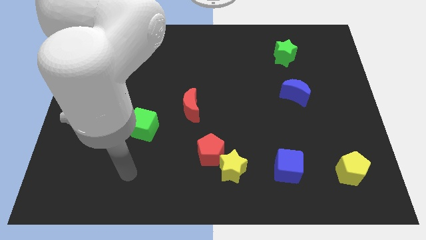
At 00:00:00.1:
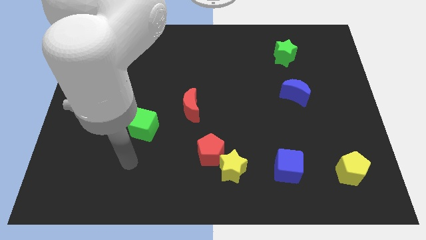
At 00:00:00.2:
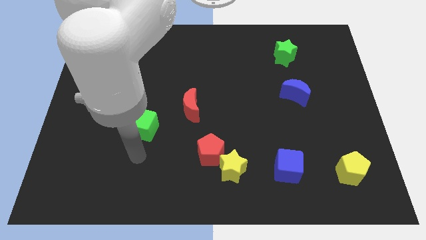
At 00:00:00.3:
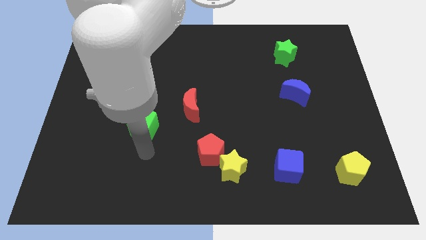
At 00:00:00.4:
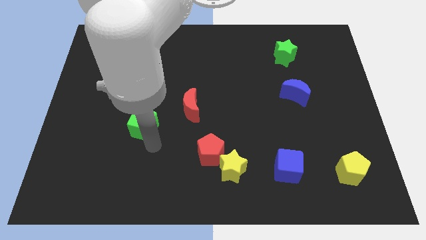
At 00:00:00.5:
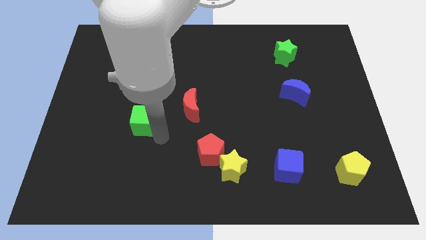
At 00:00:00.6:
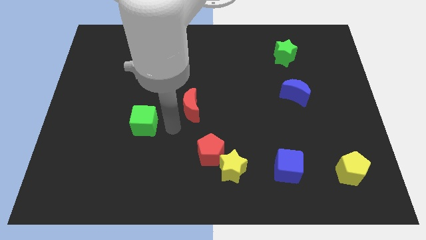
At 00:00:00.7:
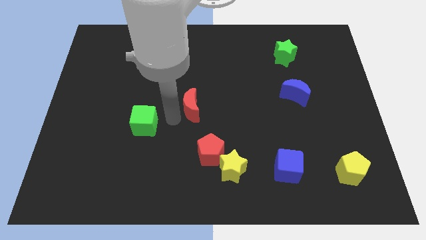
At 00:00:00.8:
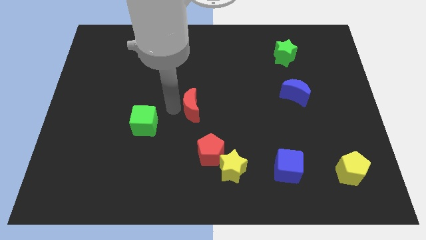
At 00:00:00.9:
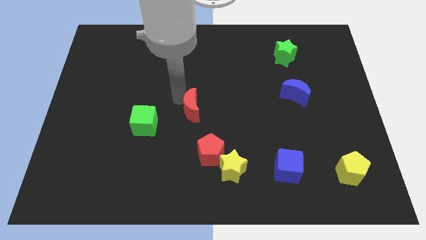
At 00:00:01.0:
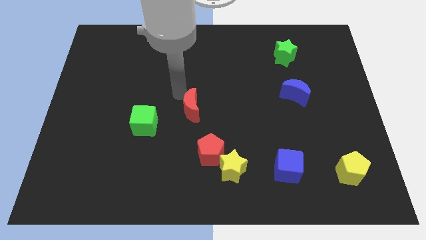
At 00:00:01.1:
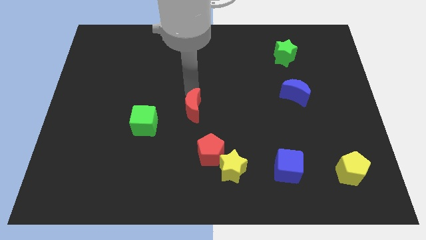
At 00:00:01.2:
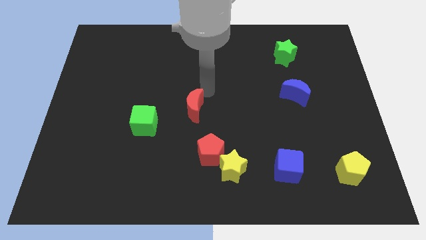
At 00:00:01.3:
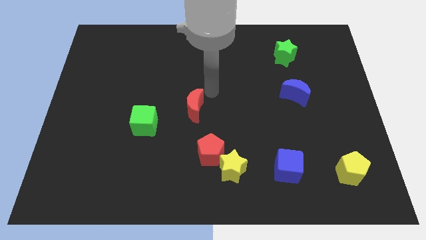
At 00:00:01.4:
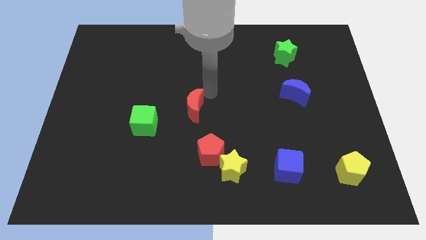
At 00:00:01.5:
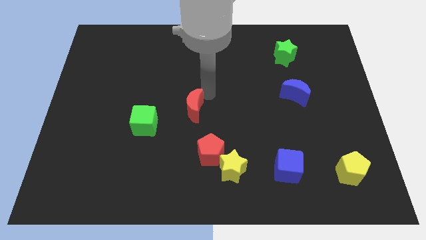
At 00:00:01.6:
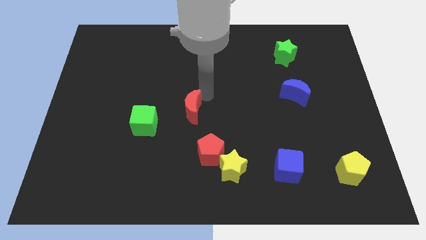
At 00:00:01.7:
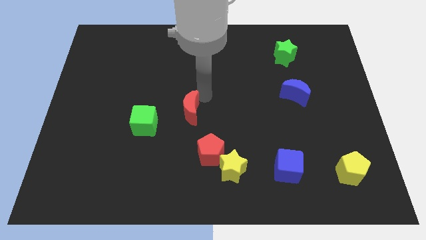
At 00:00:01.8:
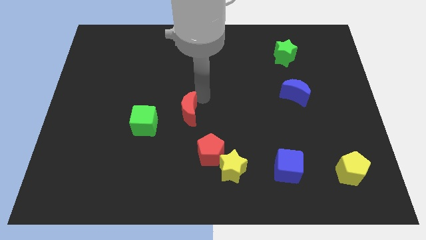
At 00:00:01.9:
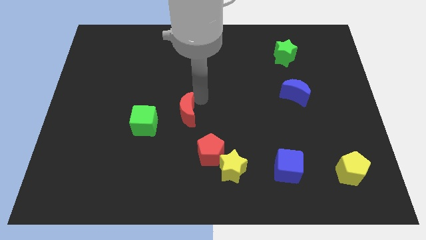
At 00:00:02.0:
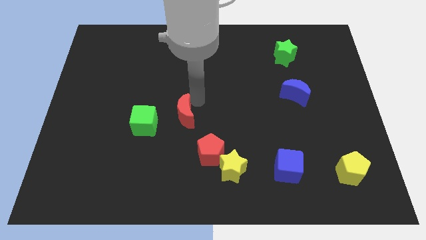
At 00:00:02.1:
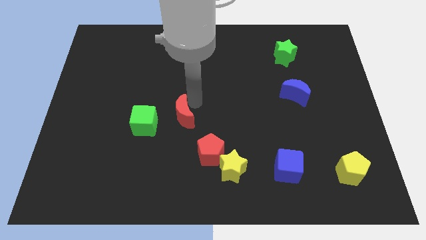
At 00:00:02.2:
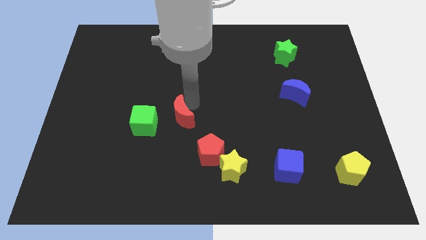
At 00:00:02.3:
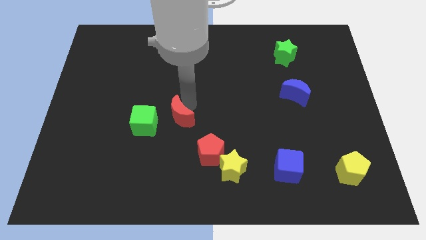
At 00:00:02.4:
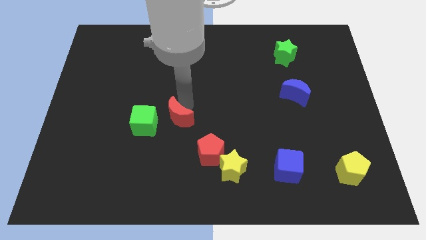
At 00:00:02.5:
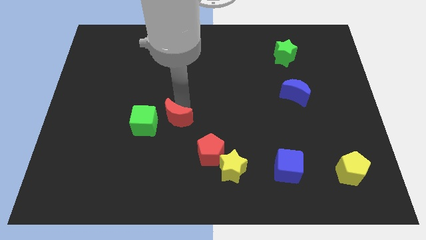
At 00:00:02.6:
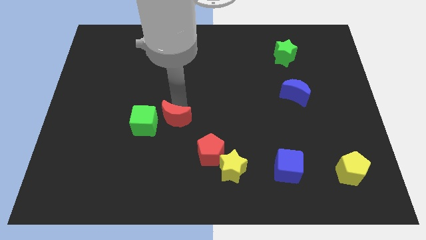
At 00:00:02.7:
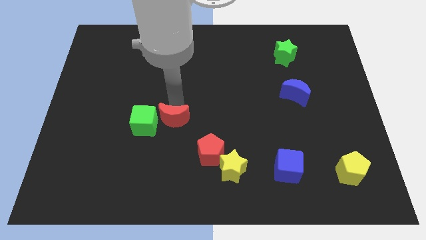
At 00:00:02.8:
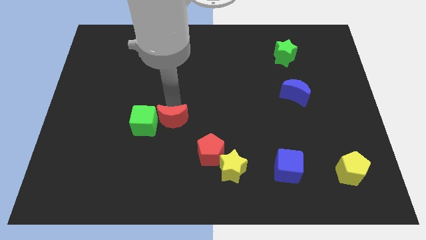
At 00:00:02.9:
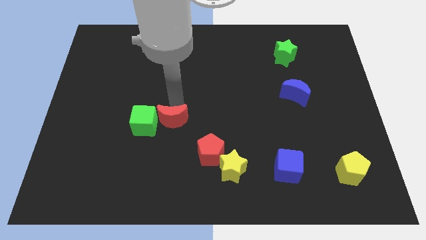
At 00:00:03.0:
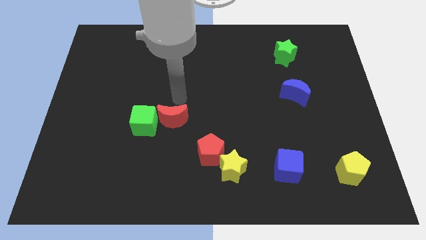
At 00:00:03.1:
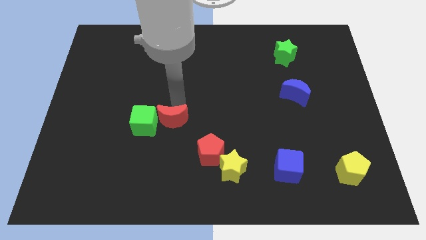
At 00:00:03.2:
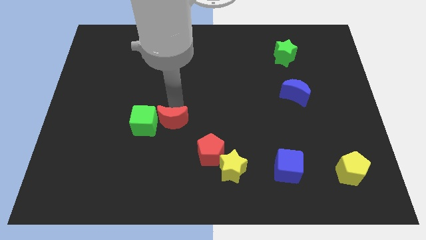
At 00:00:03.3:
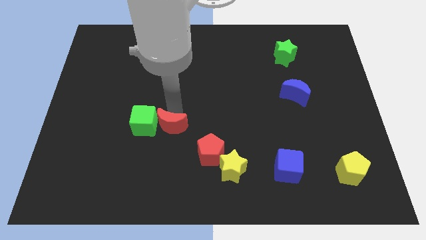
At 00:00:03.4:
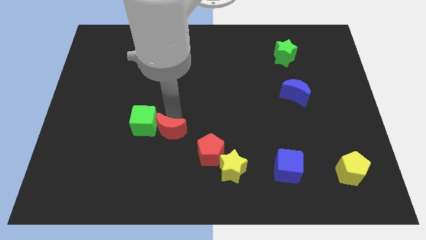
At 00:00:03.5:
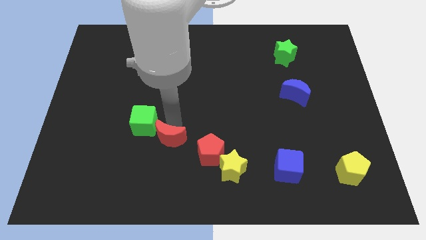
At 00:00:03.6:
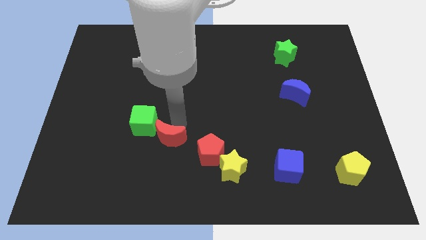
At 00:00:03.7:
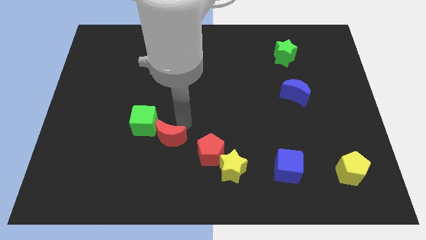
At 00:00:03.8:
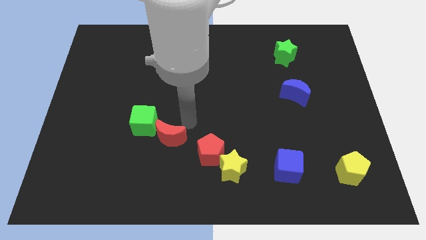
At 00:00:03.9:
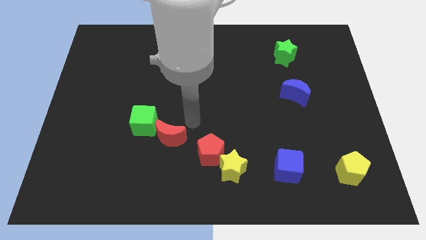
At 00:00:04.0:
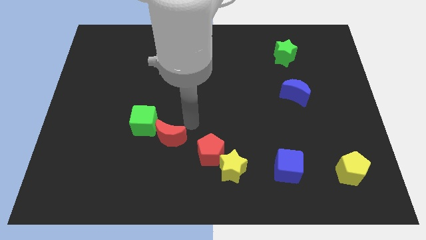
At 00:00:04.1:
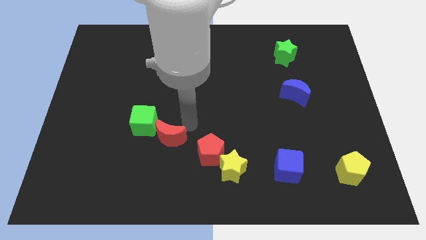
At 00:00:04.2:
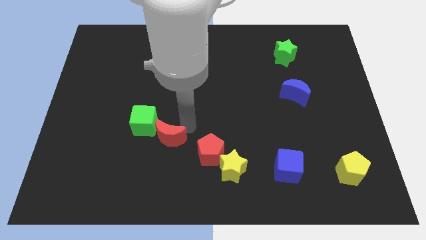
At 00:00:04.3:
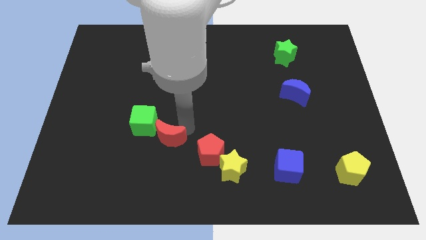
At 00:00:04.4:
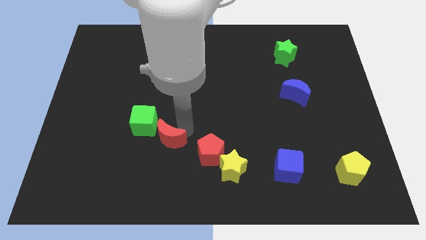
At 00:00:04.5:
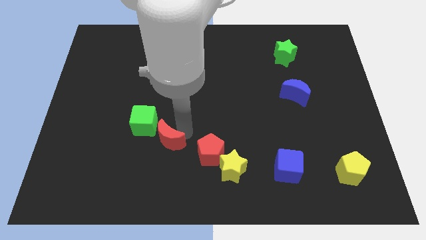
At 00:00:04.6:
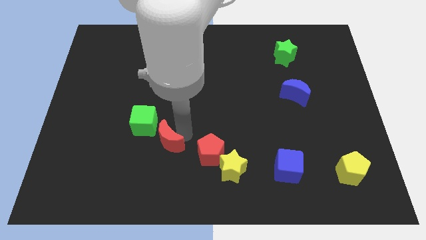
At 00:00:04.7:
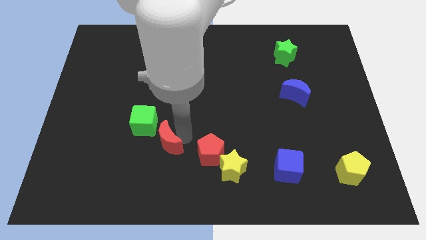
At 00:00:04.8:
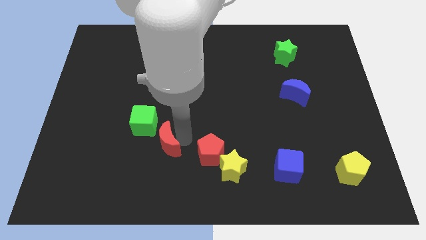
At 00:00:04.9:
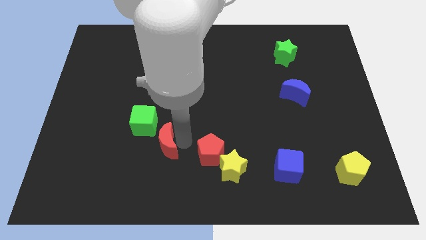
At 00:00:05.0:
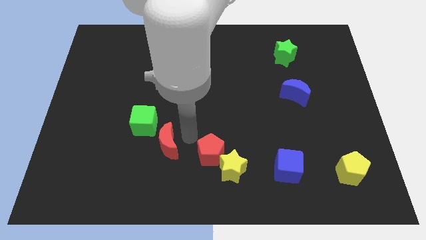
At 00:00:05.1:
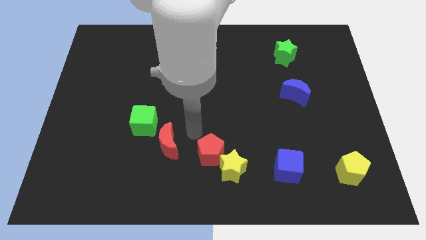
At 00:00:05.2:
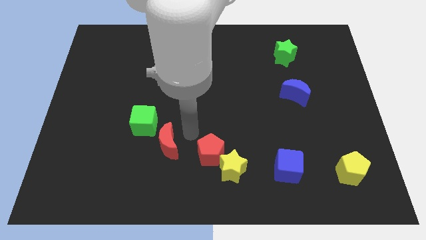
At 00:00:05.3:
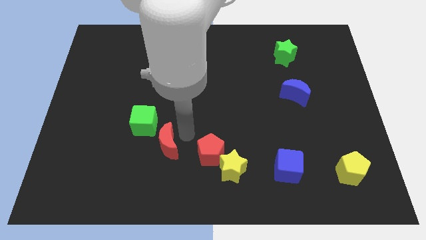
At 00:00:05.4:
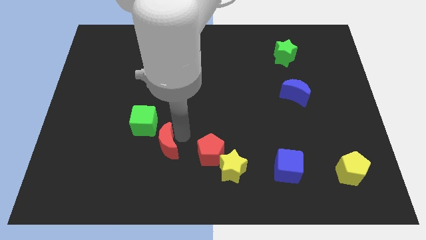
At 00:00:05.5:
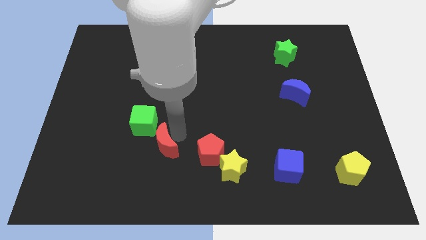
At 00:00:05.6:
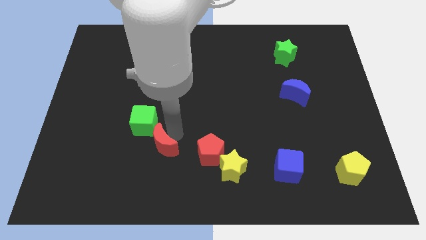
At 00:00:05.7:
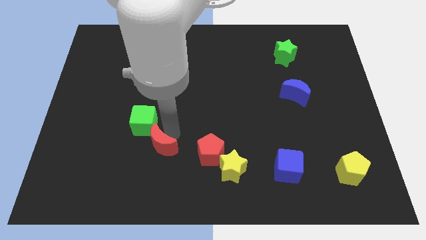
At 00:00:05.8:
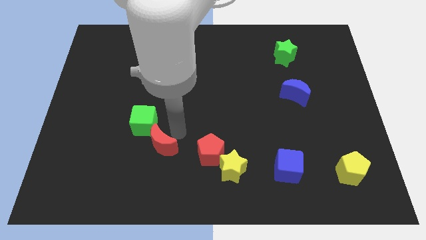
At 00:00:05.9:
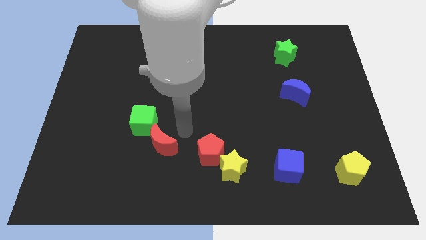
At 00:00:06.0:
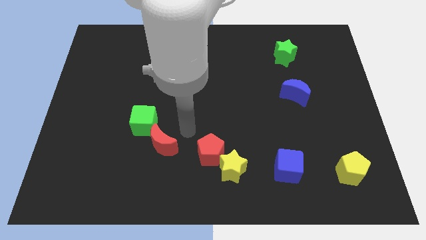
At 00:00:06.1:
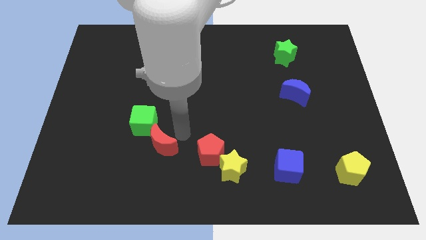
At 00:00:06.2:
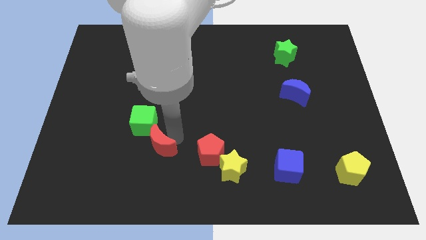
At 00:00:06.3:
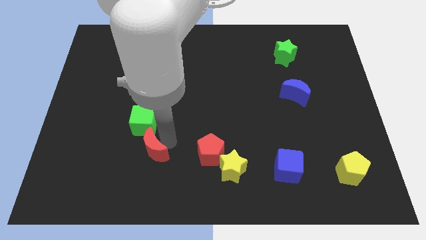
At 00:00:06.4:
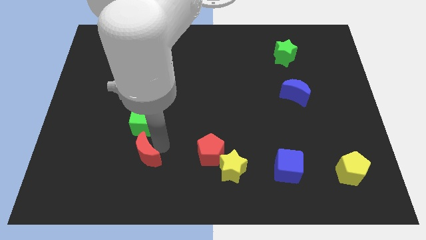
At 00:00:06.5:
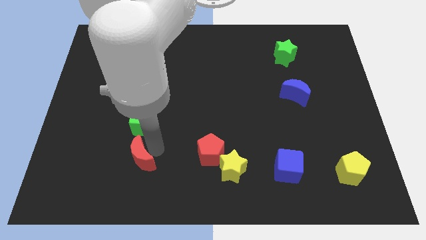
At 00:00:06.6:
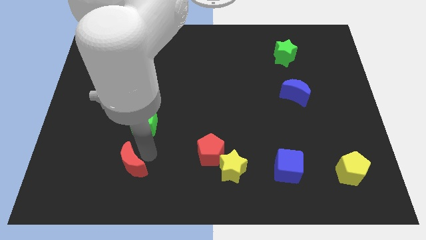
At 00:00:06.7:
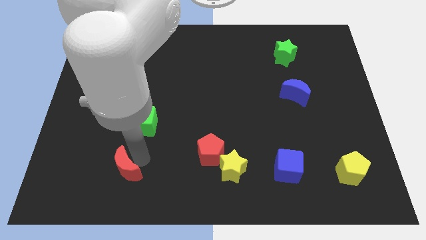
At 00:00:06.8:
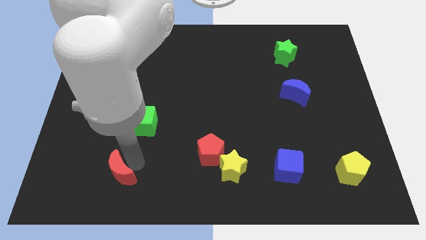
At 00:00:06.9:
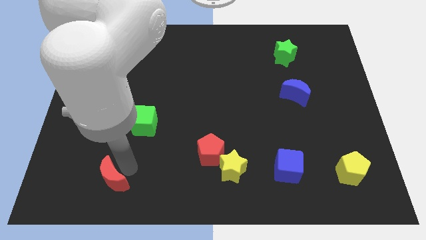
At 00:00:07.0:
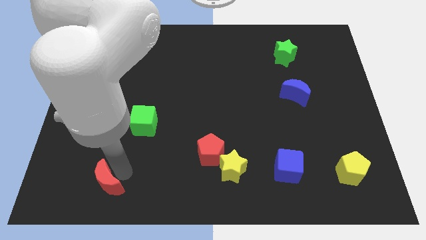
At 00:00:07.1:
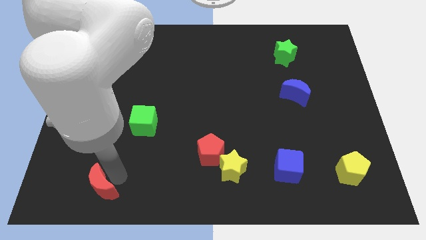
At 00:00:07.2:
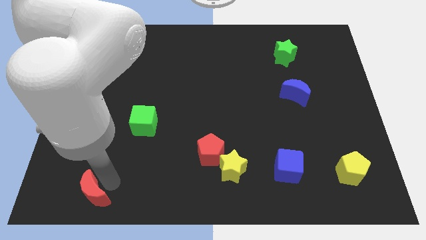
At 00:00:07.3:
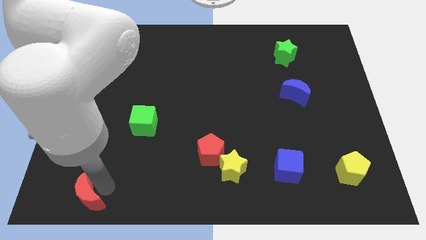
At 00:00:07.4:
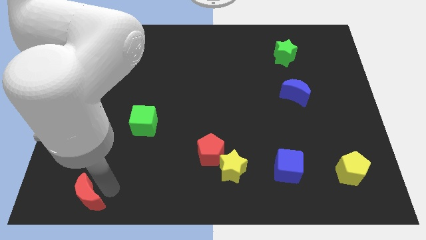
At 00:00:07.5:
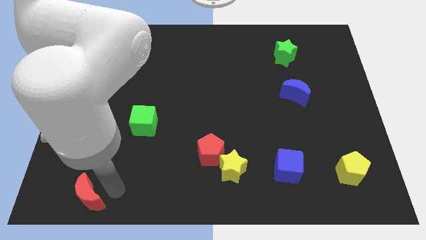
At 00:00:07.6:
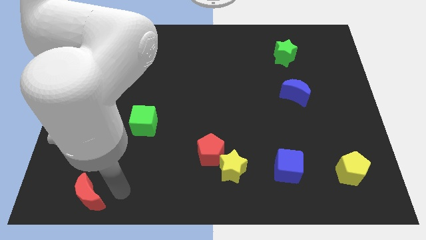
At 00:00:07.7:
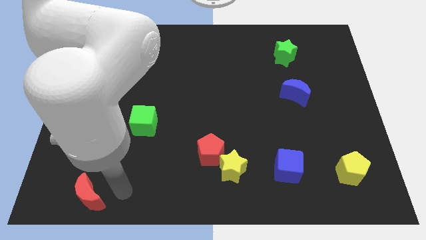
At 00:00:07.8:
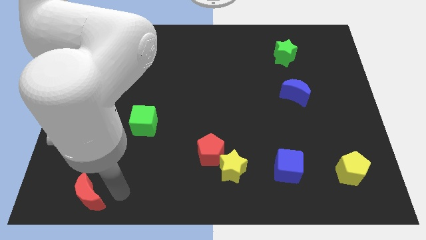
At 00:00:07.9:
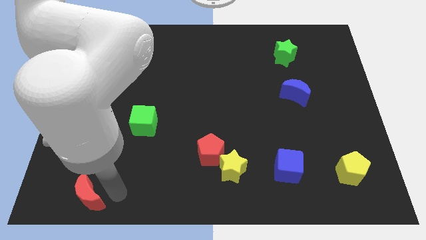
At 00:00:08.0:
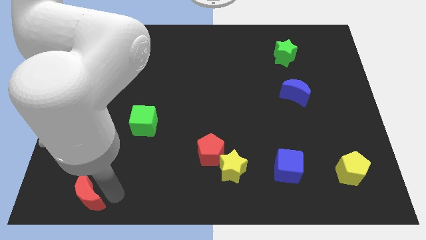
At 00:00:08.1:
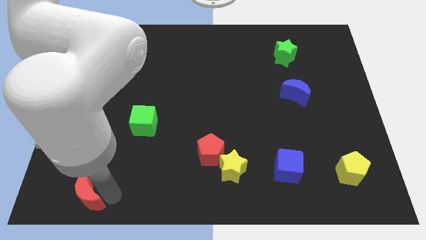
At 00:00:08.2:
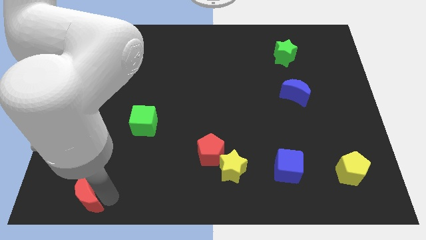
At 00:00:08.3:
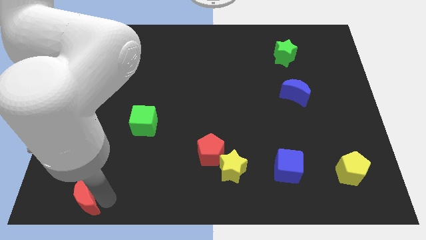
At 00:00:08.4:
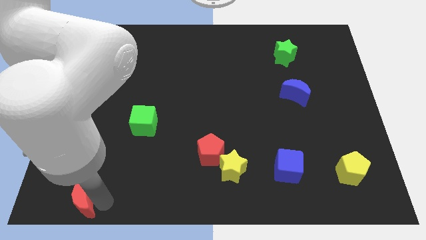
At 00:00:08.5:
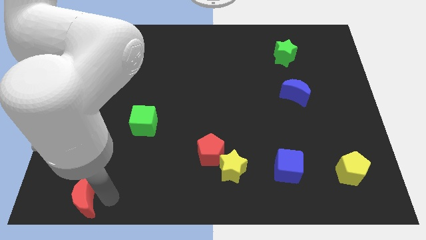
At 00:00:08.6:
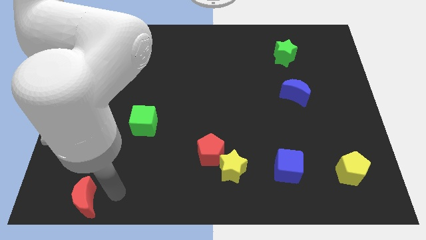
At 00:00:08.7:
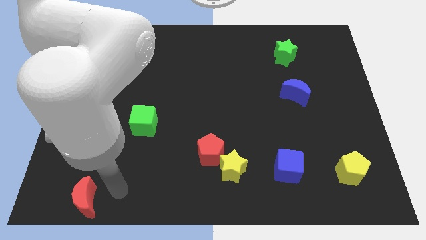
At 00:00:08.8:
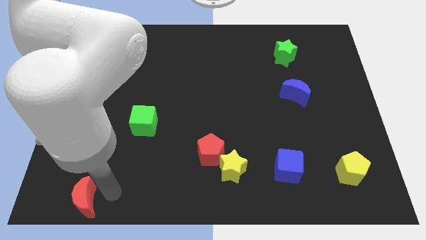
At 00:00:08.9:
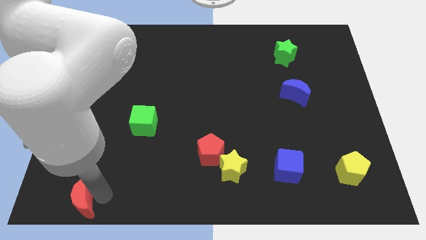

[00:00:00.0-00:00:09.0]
push the red moon to the bottom left
